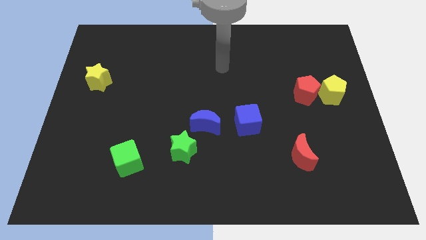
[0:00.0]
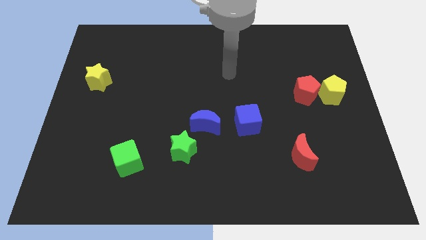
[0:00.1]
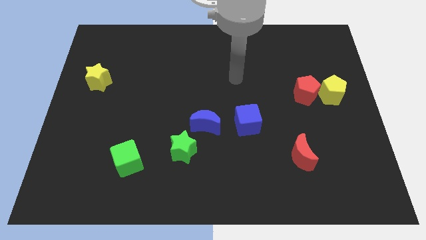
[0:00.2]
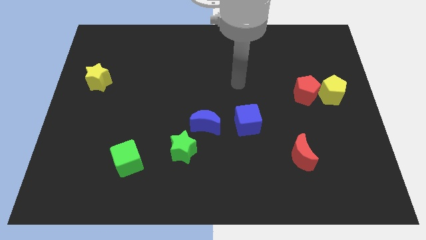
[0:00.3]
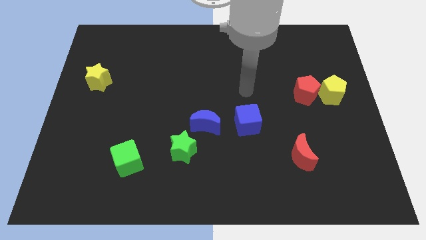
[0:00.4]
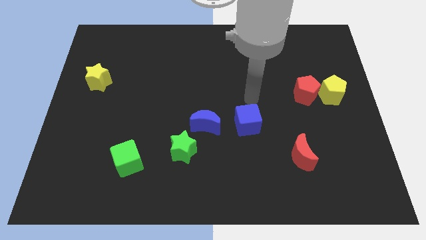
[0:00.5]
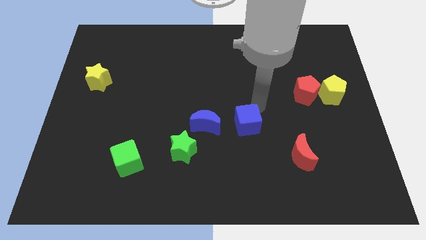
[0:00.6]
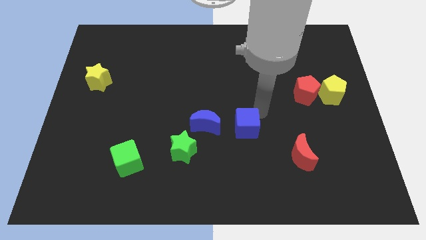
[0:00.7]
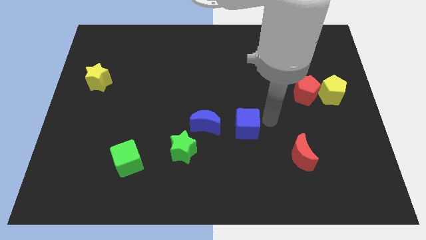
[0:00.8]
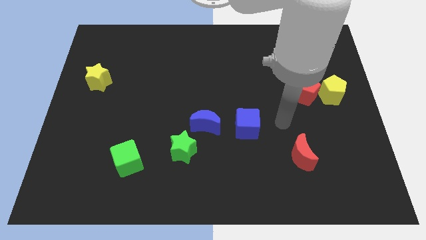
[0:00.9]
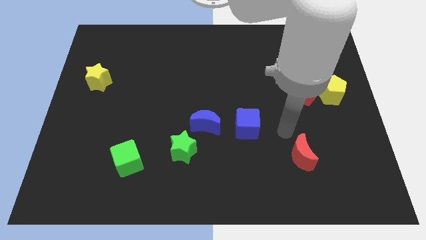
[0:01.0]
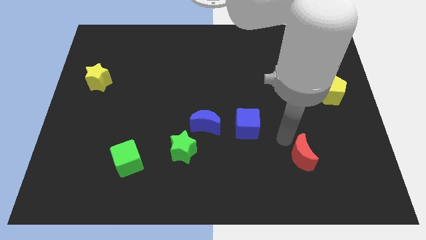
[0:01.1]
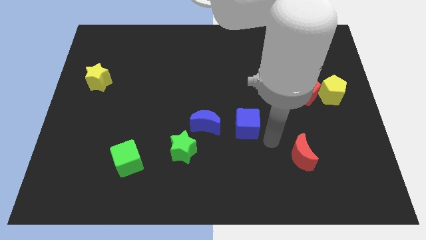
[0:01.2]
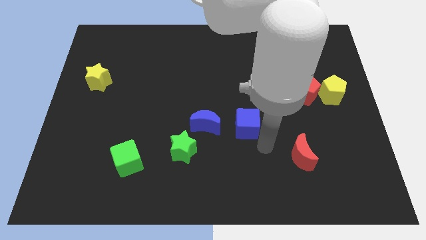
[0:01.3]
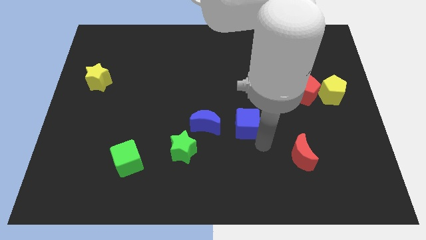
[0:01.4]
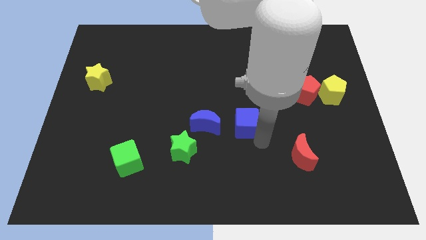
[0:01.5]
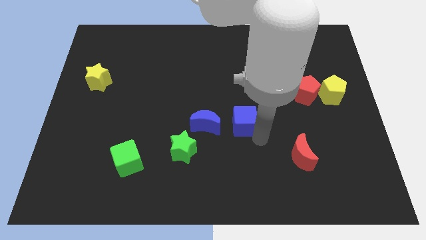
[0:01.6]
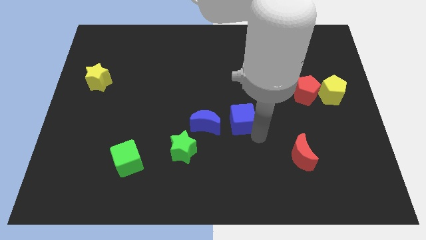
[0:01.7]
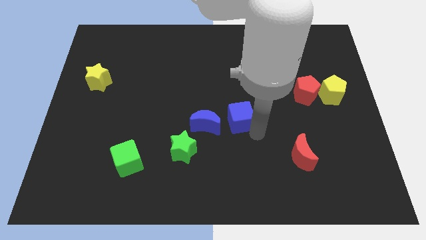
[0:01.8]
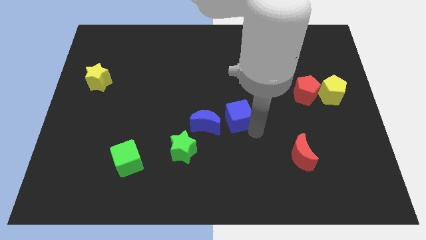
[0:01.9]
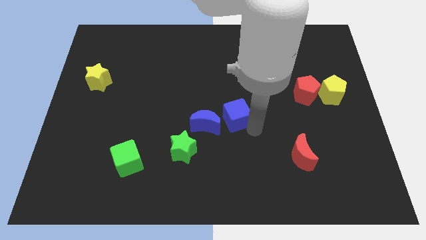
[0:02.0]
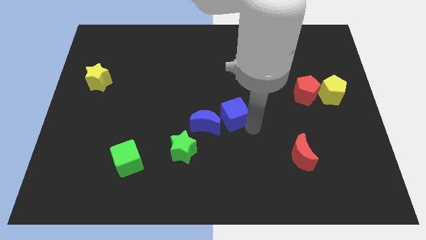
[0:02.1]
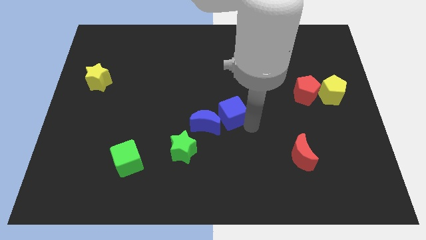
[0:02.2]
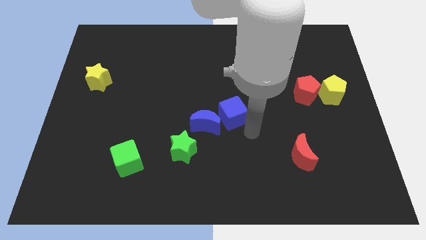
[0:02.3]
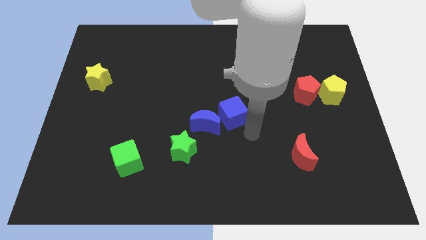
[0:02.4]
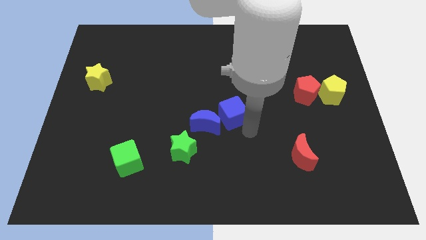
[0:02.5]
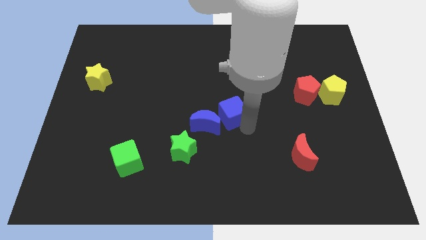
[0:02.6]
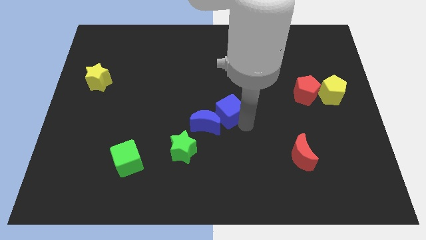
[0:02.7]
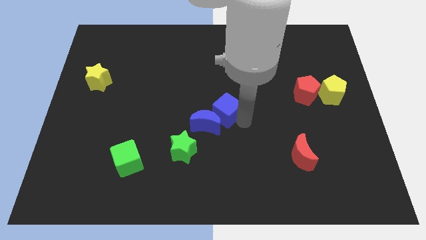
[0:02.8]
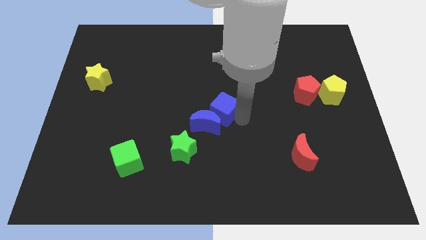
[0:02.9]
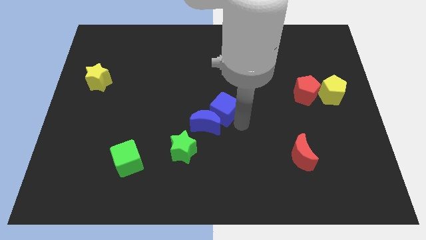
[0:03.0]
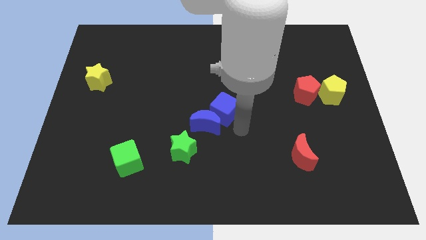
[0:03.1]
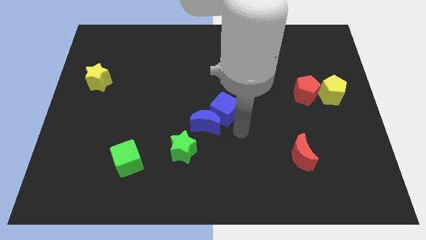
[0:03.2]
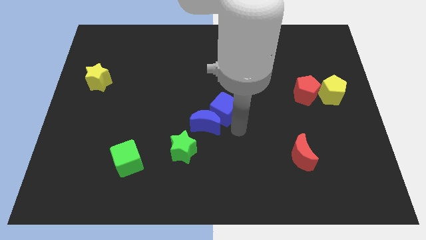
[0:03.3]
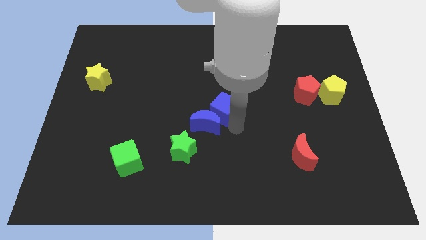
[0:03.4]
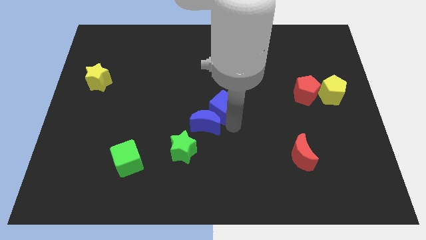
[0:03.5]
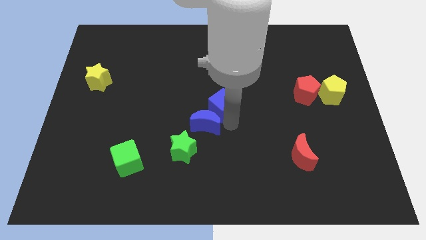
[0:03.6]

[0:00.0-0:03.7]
move the blue cube slightly upwards and to the left

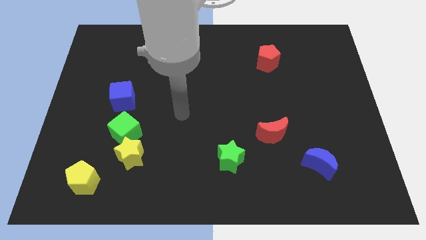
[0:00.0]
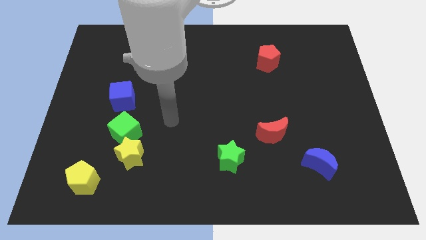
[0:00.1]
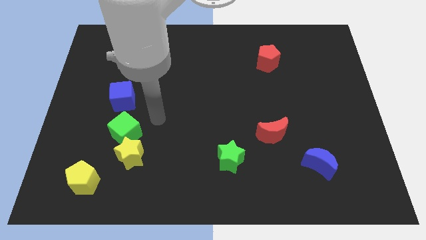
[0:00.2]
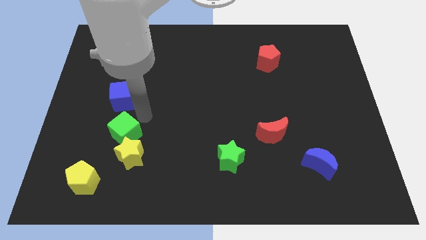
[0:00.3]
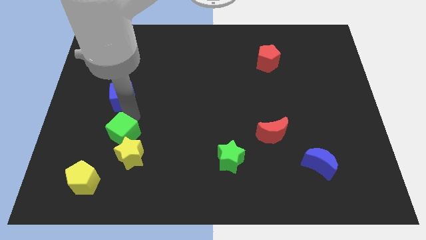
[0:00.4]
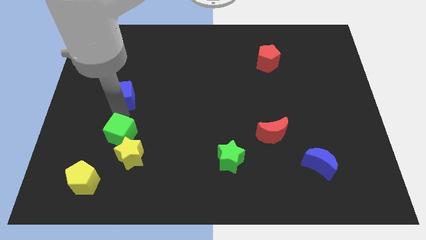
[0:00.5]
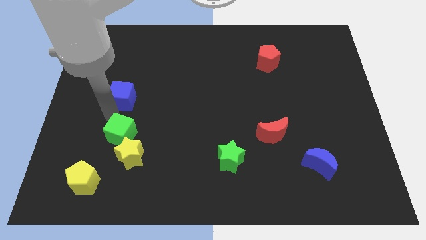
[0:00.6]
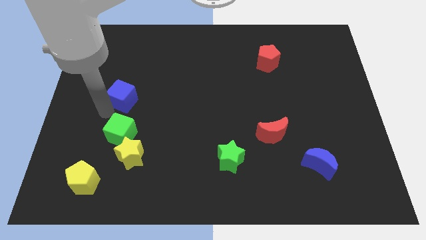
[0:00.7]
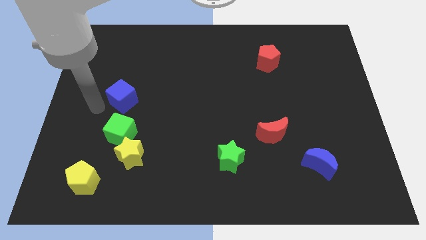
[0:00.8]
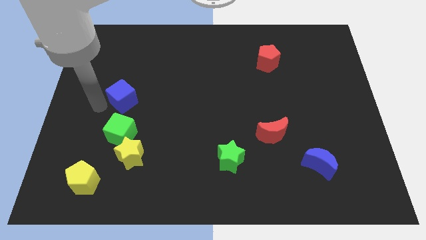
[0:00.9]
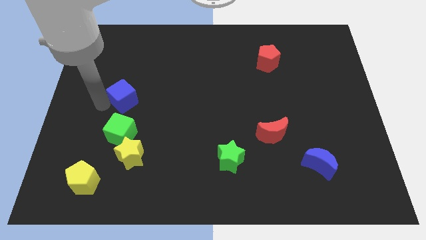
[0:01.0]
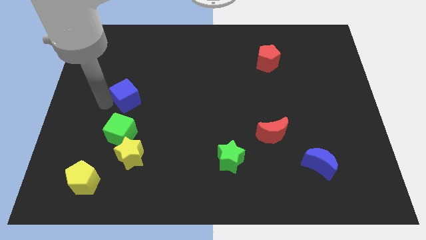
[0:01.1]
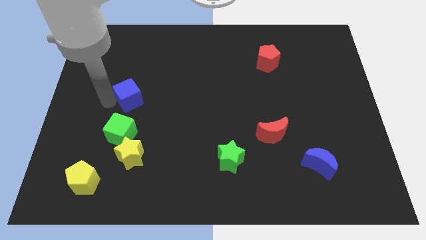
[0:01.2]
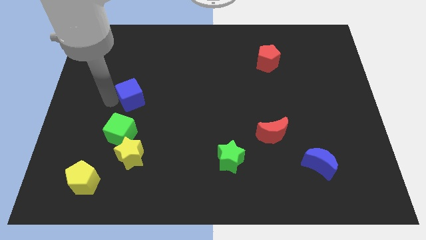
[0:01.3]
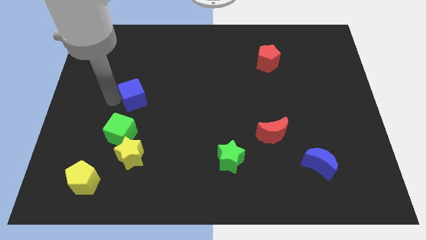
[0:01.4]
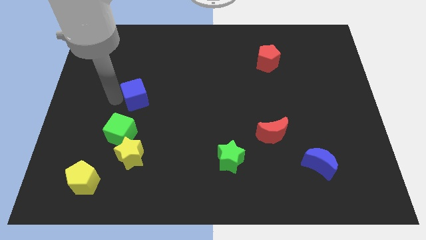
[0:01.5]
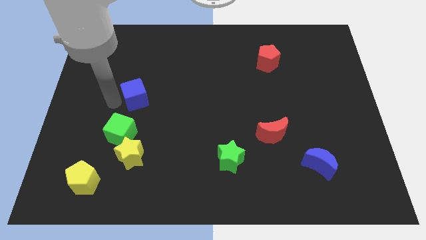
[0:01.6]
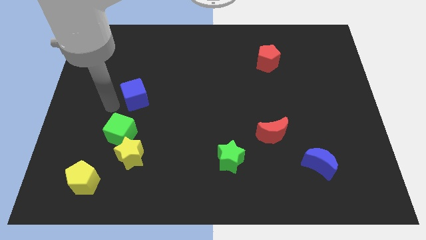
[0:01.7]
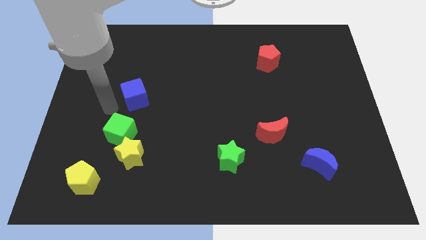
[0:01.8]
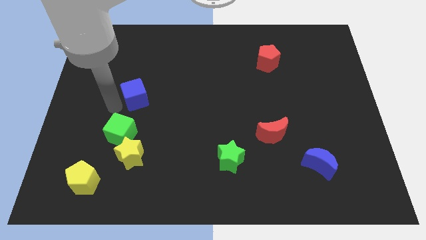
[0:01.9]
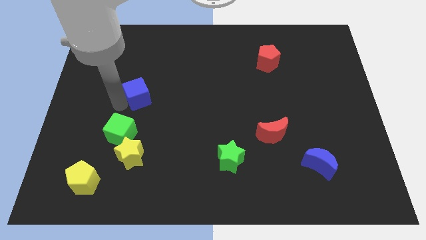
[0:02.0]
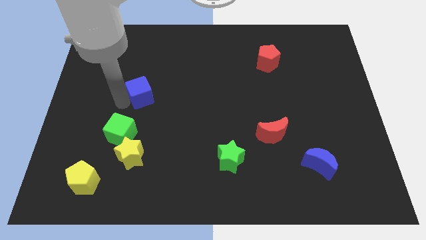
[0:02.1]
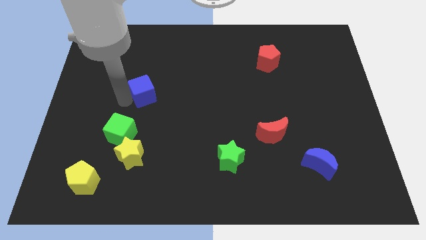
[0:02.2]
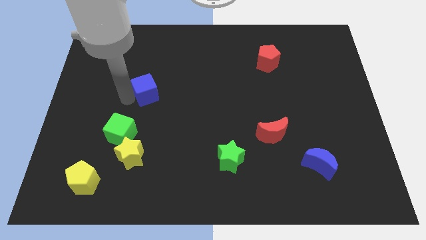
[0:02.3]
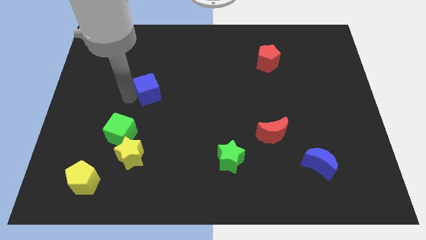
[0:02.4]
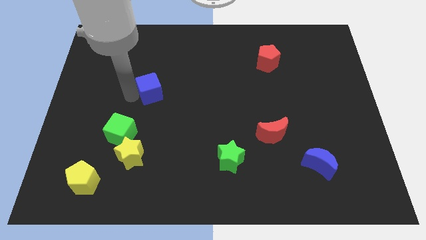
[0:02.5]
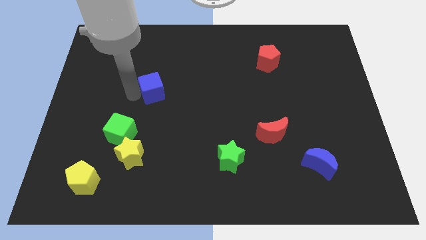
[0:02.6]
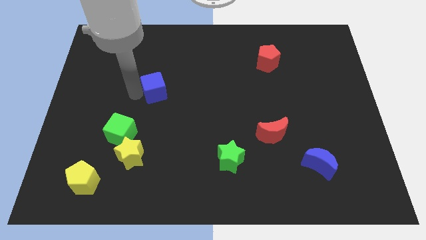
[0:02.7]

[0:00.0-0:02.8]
slightly move the blue cube right

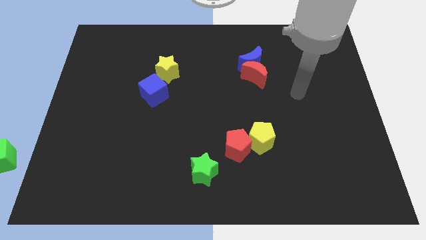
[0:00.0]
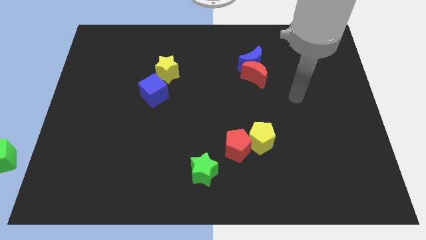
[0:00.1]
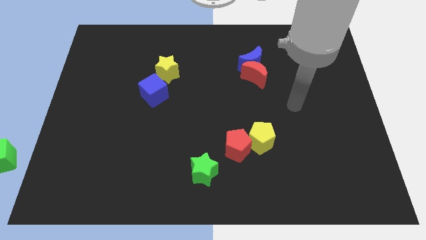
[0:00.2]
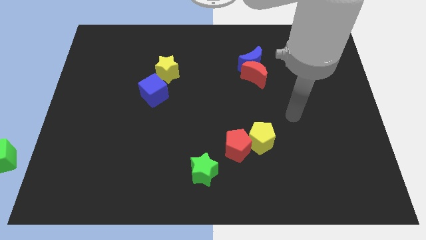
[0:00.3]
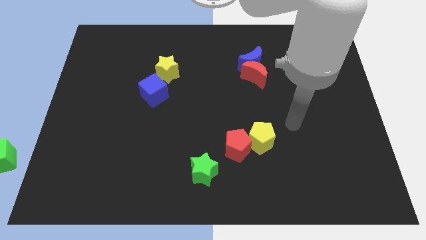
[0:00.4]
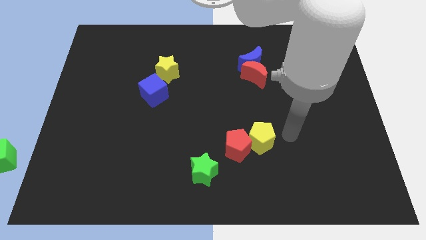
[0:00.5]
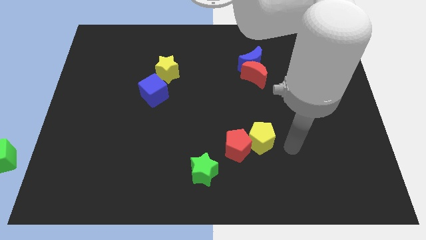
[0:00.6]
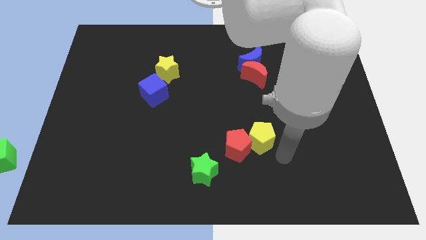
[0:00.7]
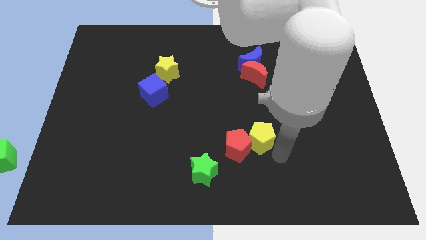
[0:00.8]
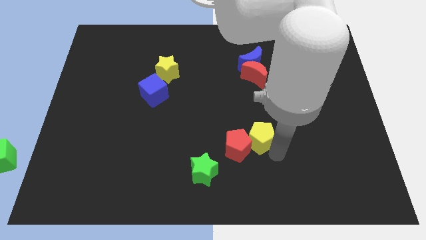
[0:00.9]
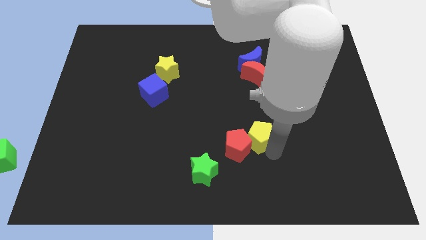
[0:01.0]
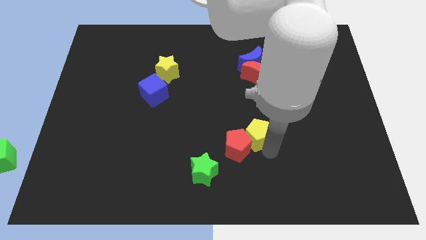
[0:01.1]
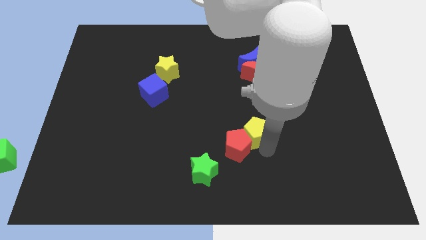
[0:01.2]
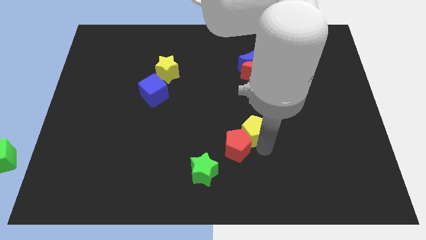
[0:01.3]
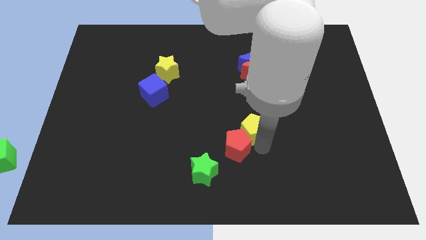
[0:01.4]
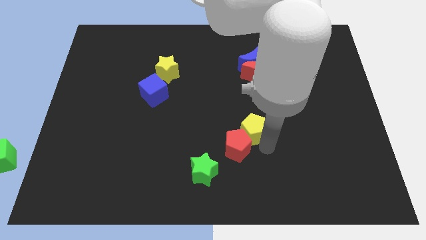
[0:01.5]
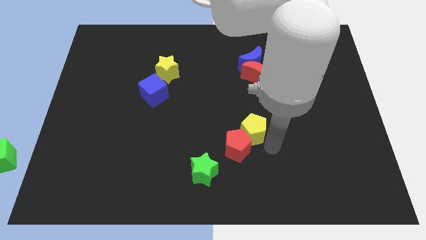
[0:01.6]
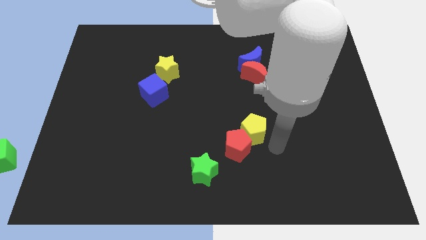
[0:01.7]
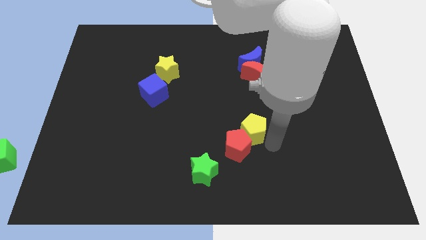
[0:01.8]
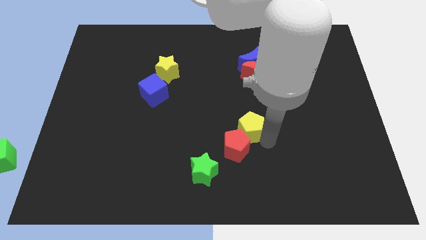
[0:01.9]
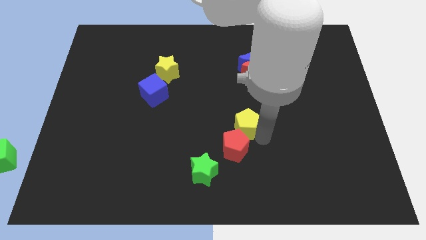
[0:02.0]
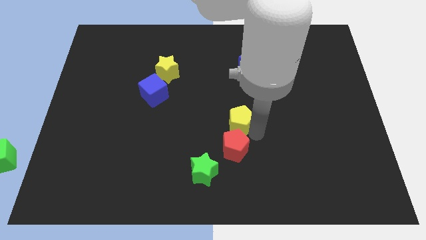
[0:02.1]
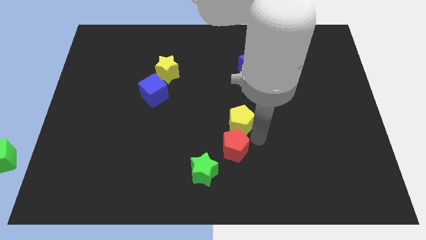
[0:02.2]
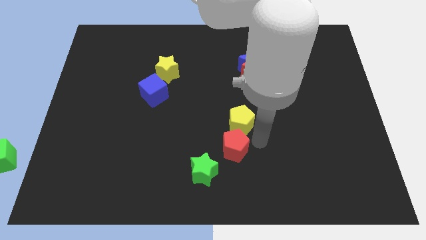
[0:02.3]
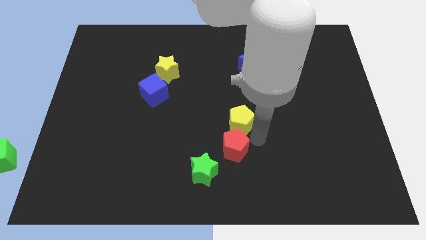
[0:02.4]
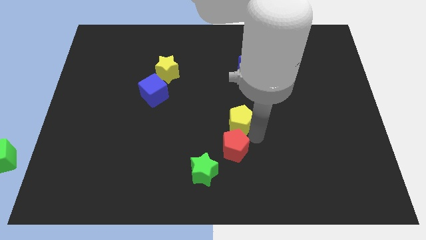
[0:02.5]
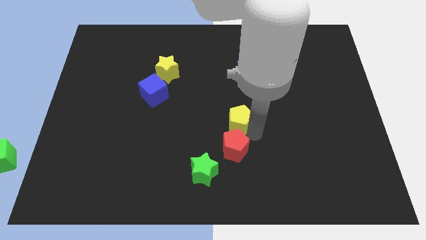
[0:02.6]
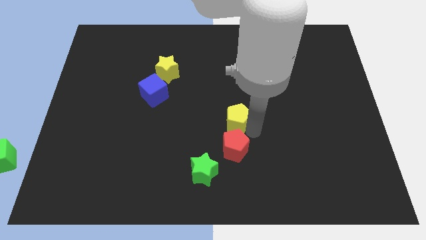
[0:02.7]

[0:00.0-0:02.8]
move the yellow pentagon upwards and then to the left a little bit
